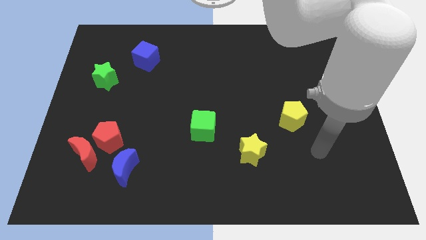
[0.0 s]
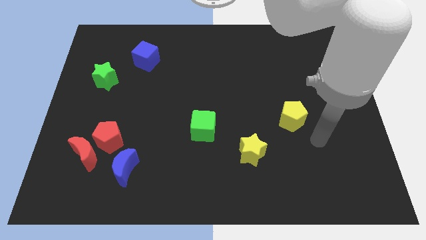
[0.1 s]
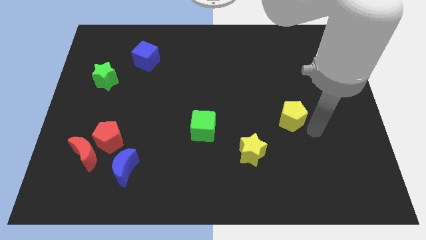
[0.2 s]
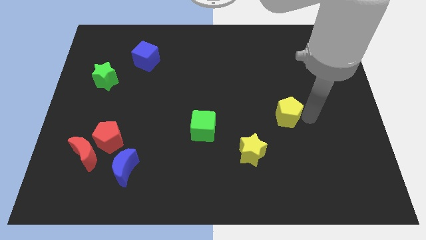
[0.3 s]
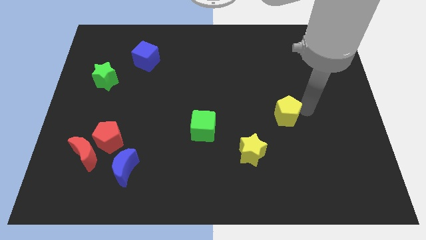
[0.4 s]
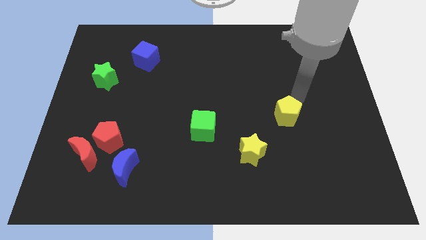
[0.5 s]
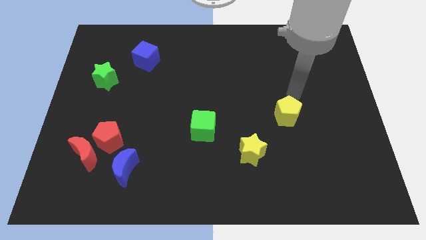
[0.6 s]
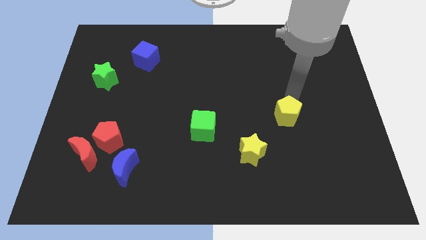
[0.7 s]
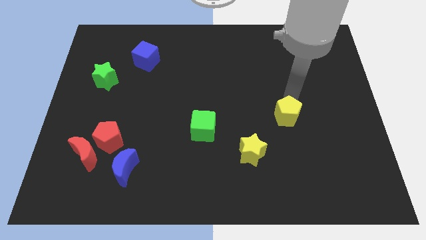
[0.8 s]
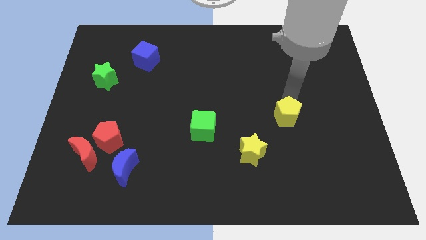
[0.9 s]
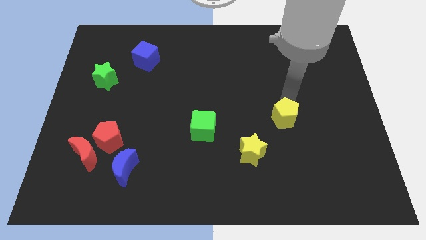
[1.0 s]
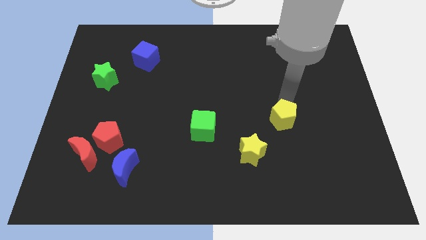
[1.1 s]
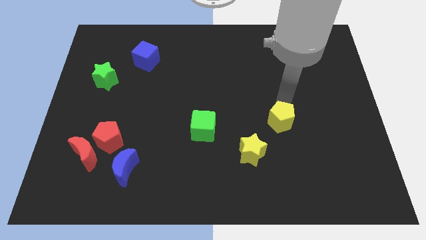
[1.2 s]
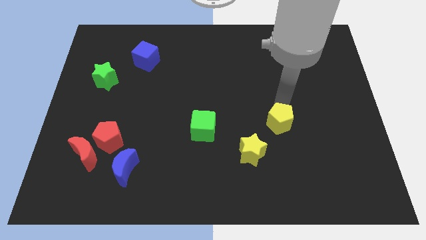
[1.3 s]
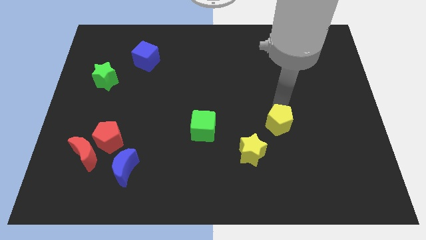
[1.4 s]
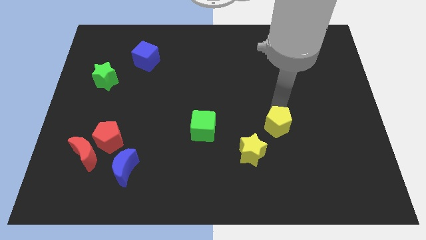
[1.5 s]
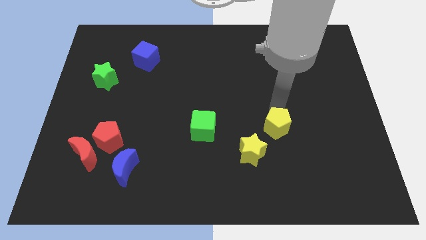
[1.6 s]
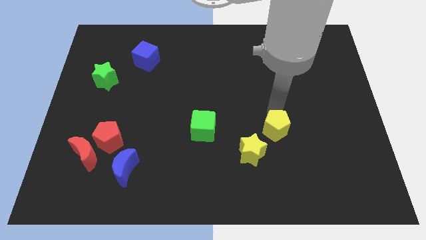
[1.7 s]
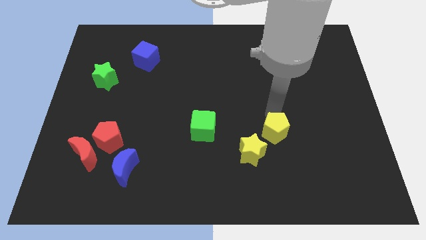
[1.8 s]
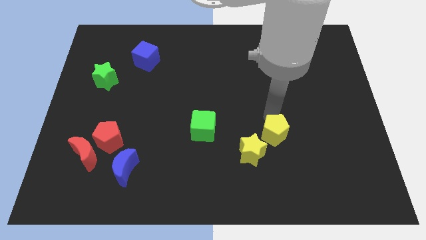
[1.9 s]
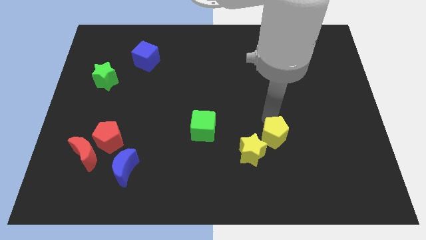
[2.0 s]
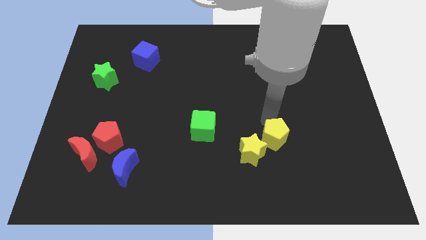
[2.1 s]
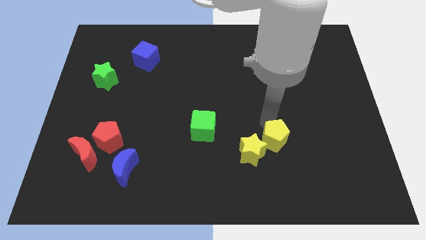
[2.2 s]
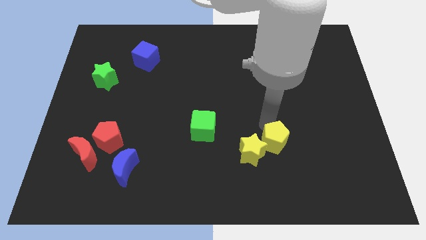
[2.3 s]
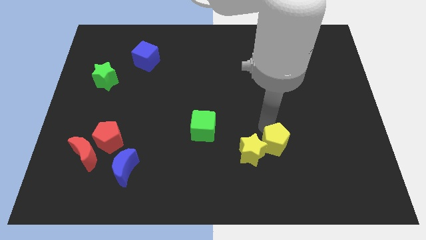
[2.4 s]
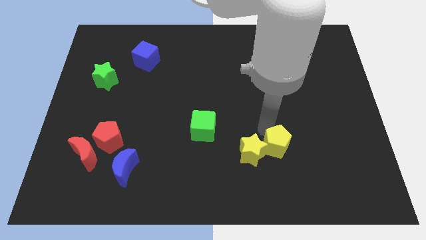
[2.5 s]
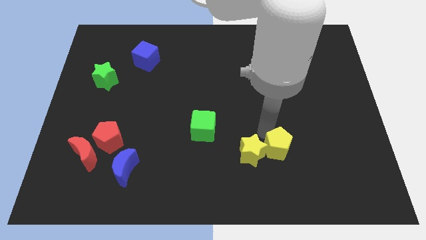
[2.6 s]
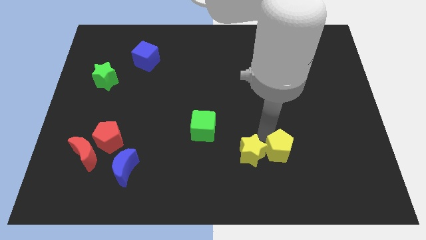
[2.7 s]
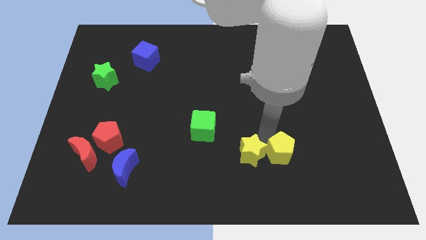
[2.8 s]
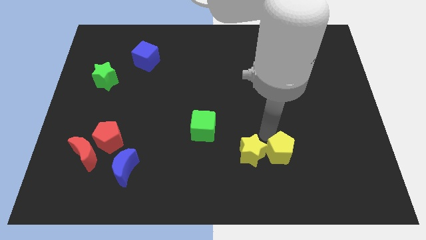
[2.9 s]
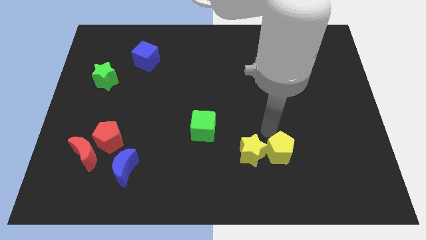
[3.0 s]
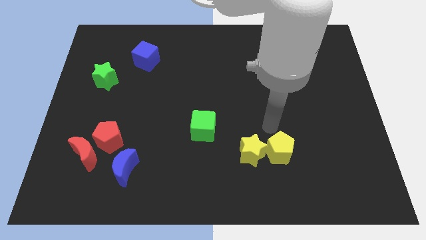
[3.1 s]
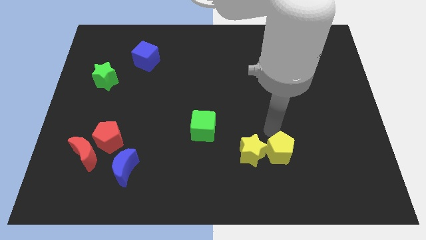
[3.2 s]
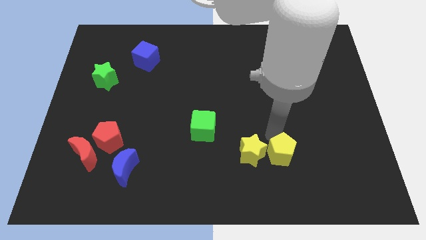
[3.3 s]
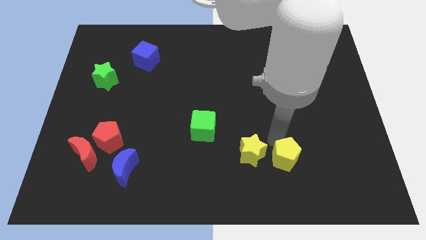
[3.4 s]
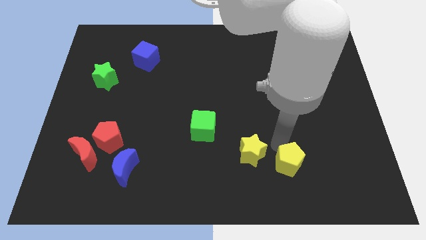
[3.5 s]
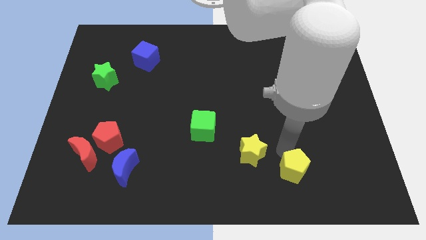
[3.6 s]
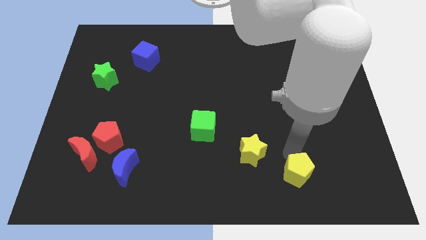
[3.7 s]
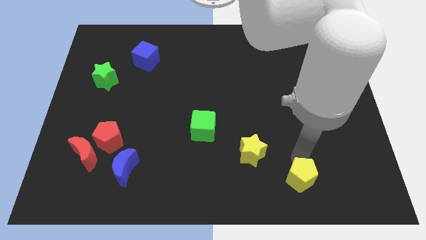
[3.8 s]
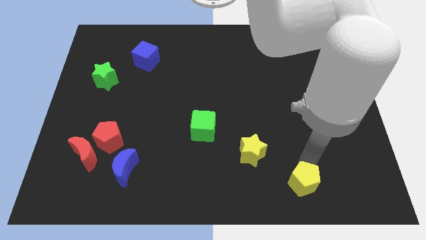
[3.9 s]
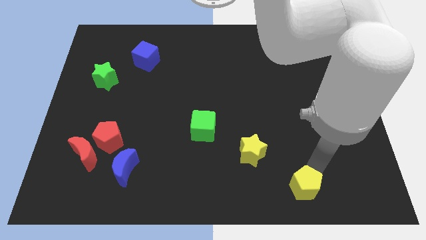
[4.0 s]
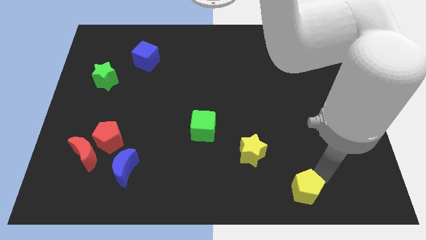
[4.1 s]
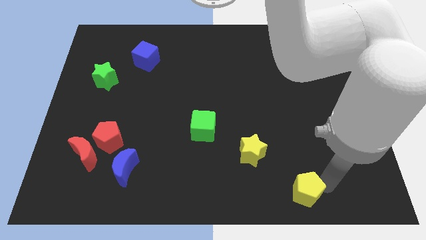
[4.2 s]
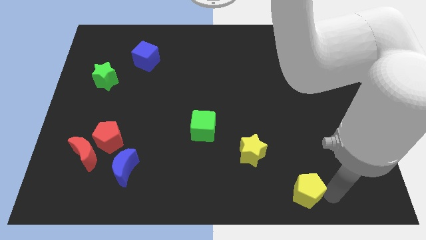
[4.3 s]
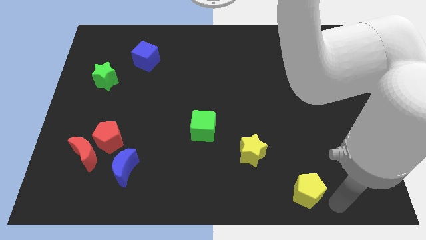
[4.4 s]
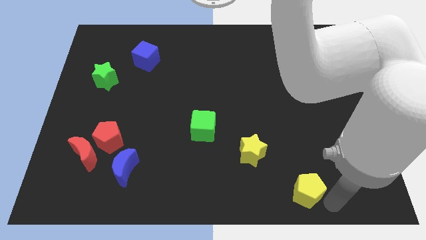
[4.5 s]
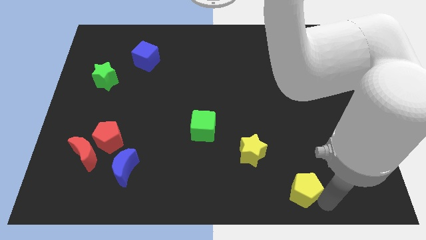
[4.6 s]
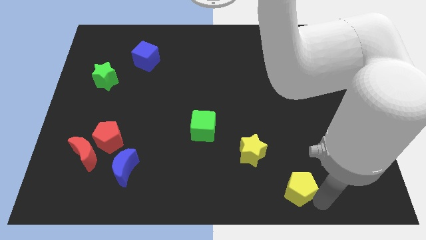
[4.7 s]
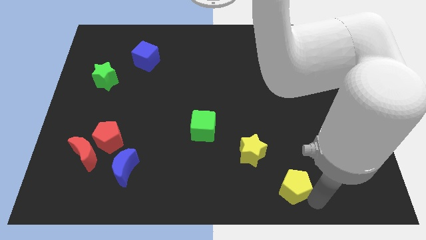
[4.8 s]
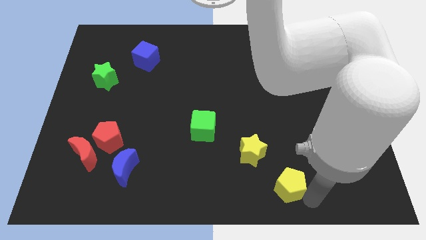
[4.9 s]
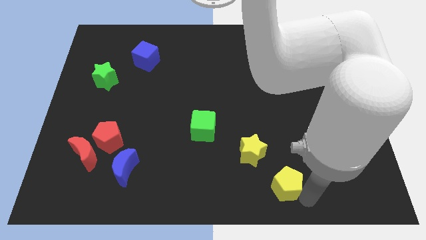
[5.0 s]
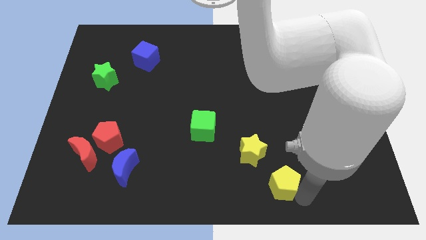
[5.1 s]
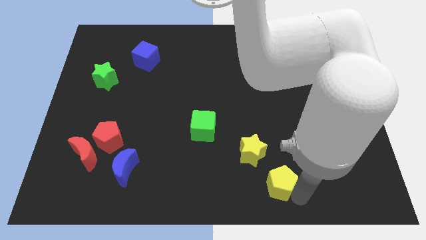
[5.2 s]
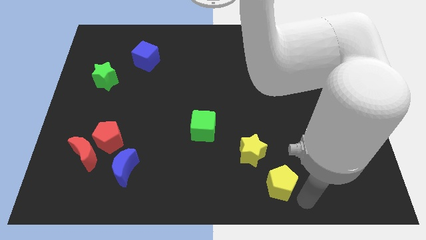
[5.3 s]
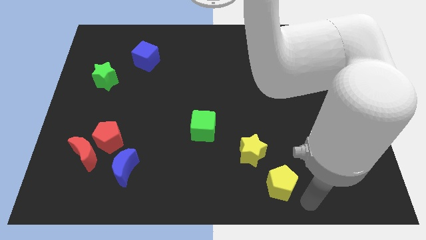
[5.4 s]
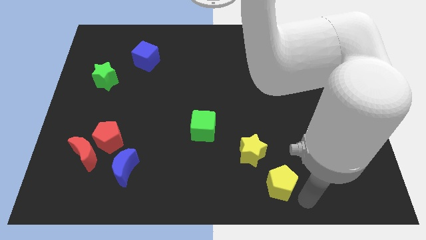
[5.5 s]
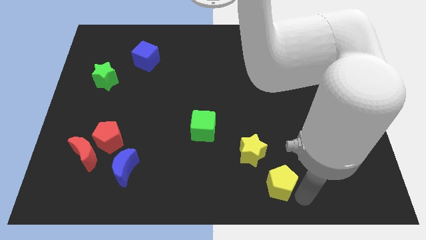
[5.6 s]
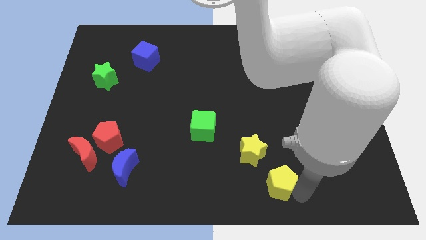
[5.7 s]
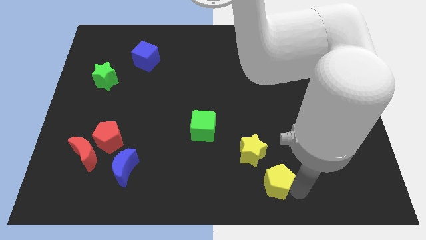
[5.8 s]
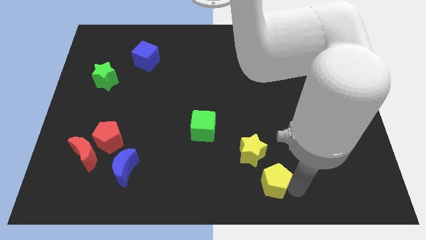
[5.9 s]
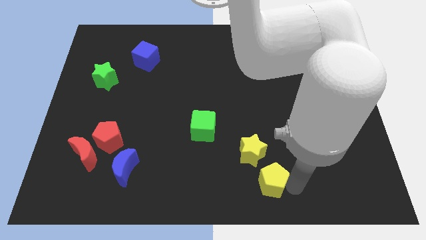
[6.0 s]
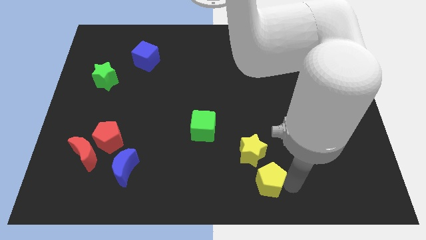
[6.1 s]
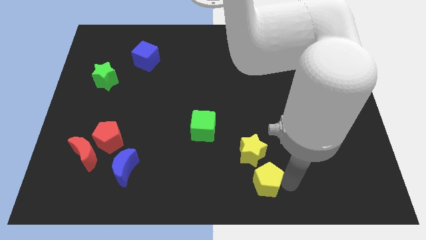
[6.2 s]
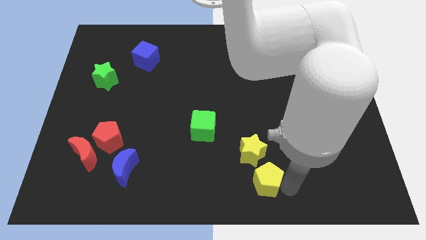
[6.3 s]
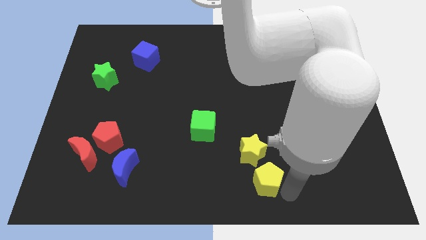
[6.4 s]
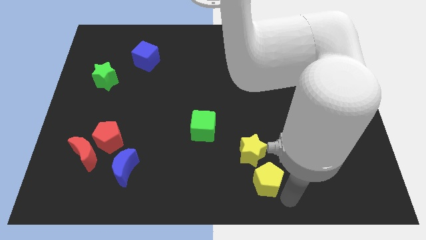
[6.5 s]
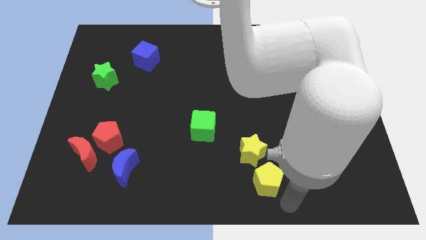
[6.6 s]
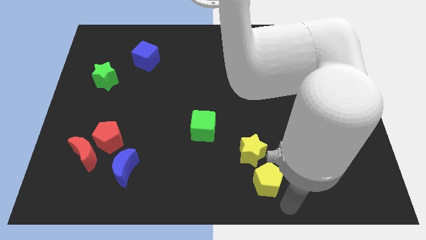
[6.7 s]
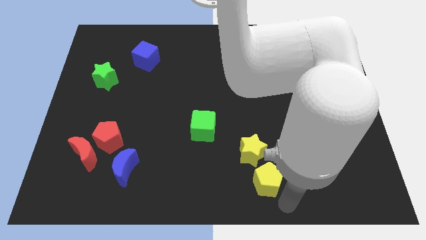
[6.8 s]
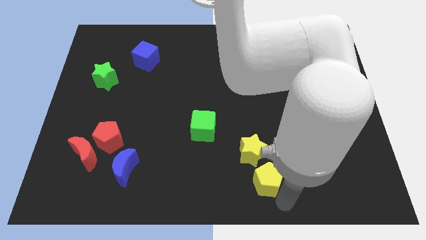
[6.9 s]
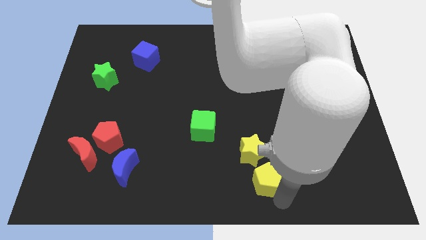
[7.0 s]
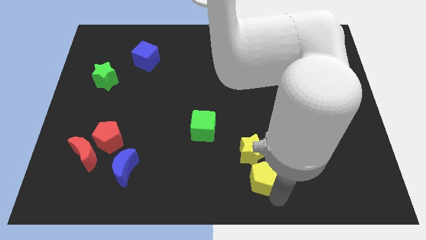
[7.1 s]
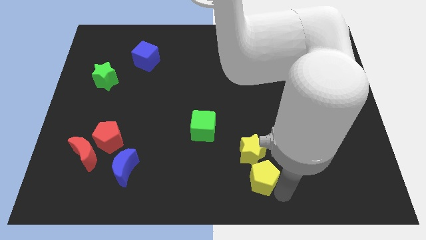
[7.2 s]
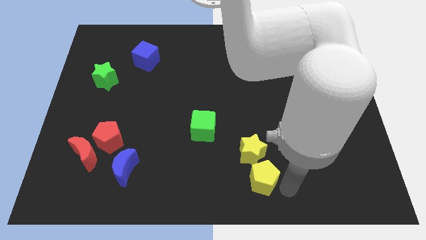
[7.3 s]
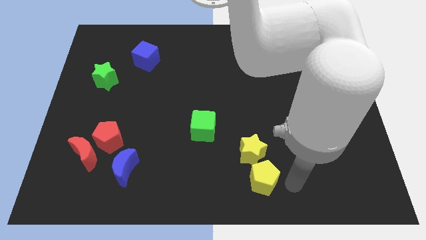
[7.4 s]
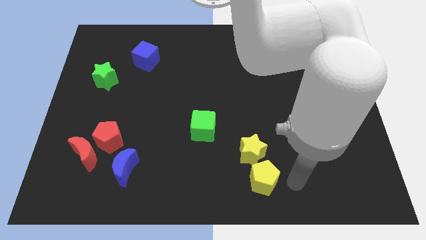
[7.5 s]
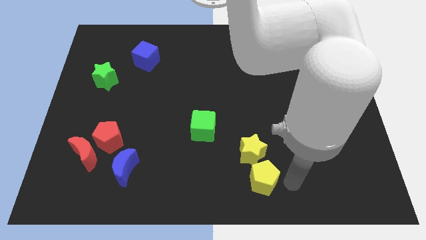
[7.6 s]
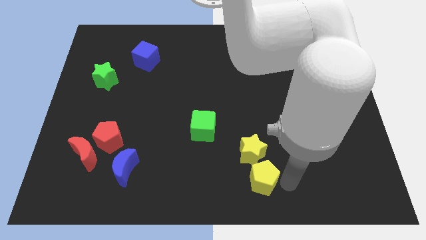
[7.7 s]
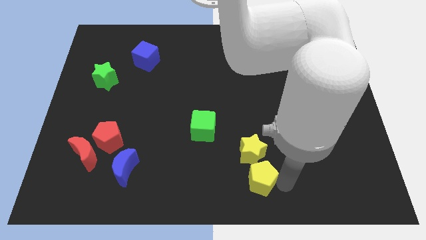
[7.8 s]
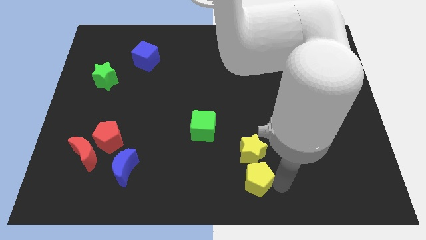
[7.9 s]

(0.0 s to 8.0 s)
slide the yellow pentagon diagonally down and to the left of the yellow star
